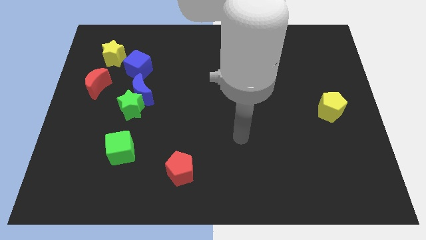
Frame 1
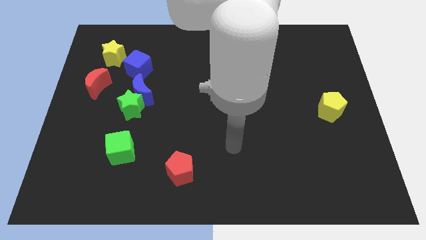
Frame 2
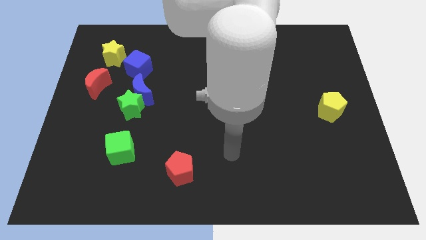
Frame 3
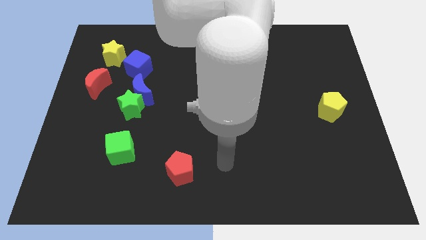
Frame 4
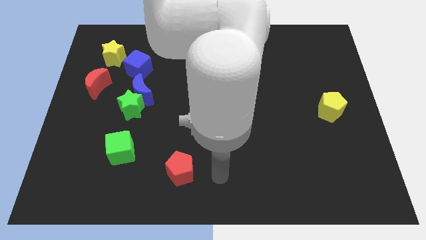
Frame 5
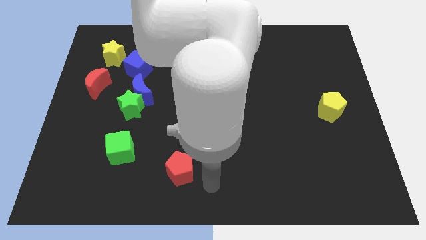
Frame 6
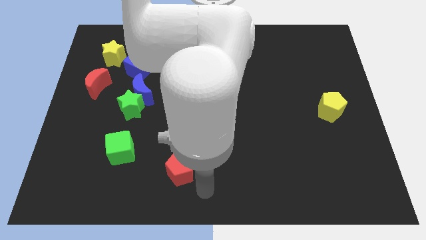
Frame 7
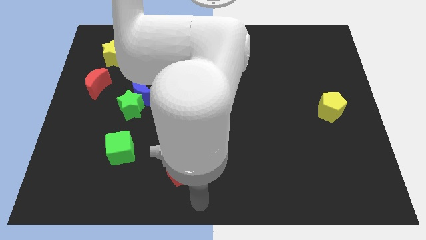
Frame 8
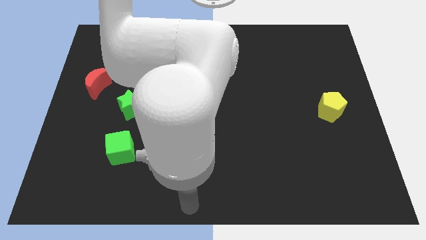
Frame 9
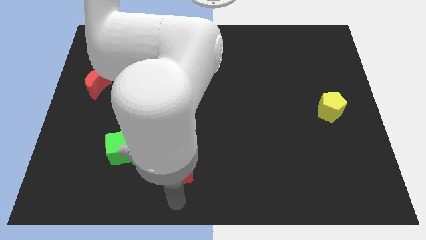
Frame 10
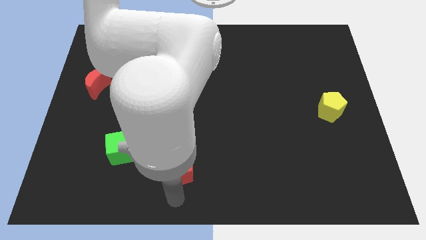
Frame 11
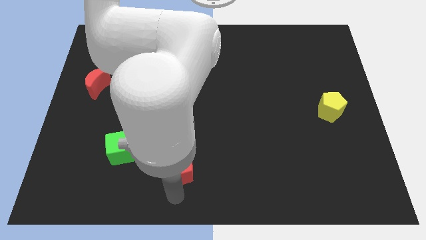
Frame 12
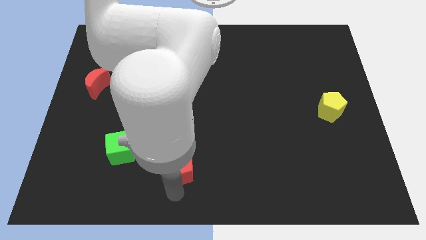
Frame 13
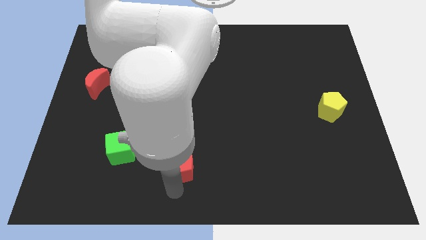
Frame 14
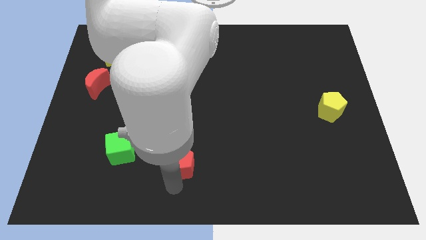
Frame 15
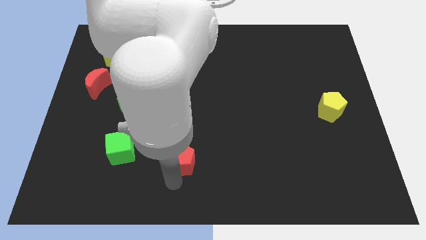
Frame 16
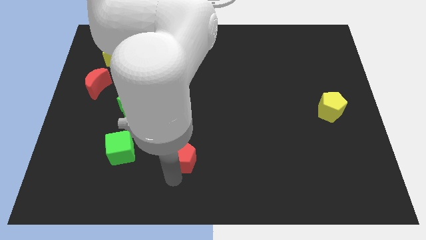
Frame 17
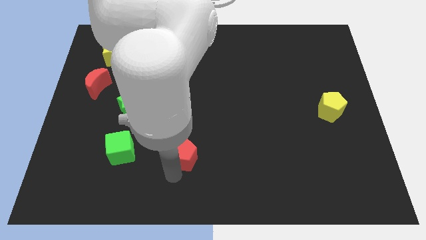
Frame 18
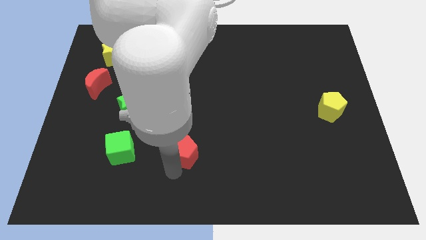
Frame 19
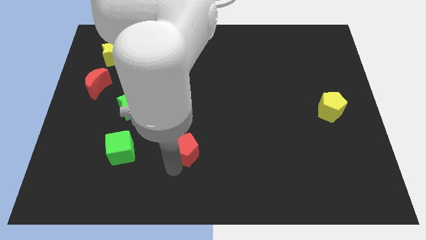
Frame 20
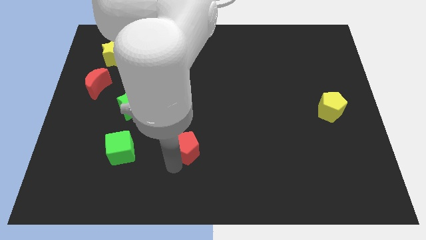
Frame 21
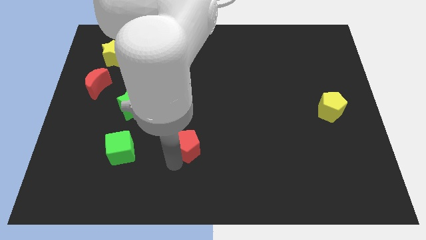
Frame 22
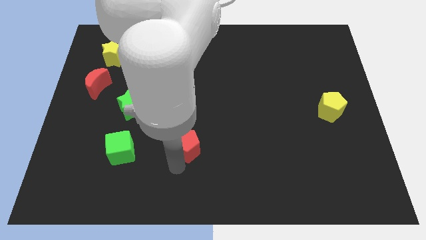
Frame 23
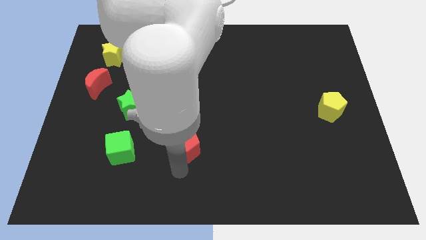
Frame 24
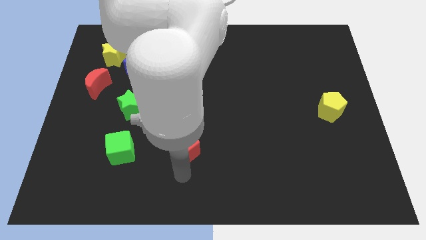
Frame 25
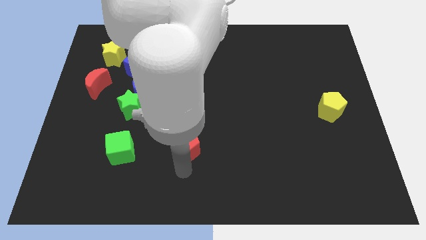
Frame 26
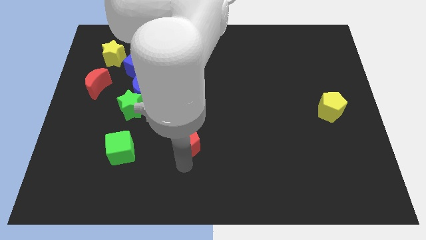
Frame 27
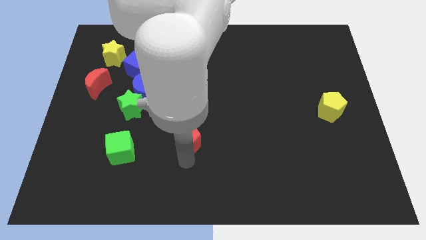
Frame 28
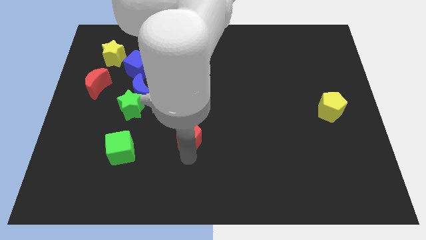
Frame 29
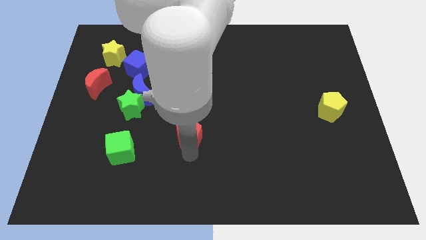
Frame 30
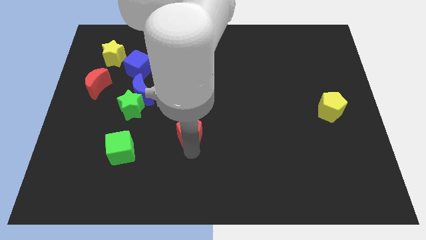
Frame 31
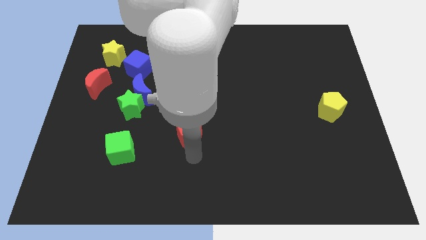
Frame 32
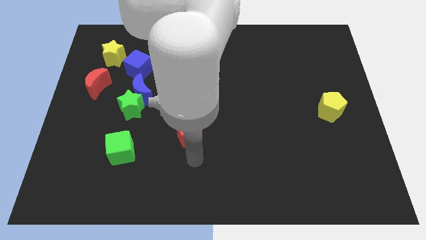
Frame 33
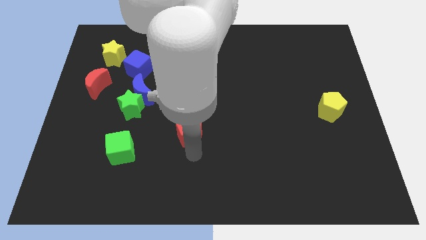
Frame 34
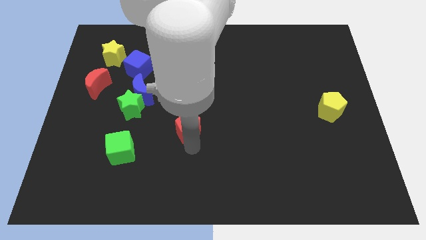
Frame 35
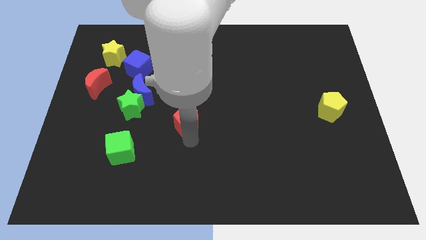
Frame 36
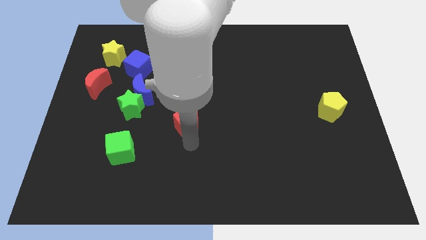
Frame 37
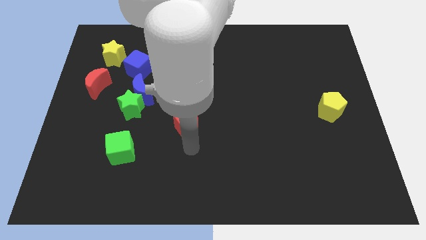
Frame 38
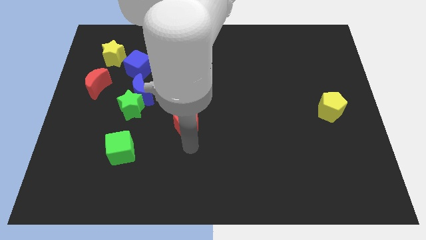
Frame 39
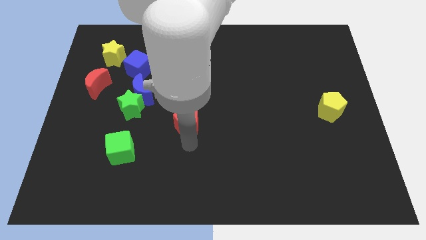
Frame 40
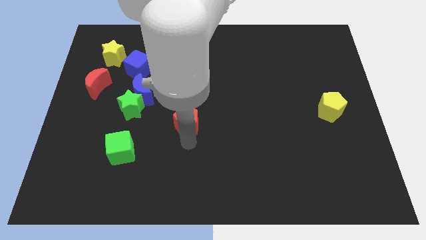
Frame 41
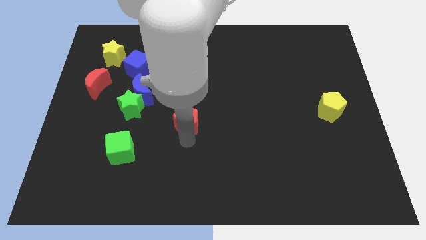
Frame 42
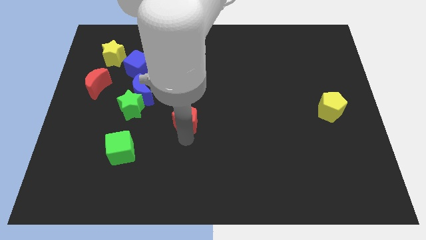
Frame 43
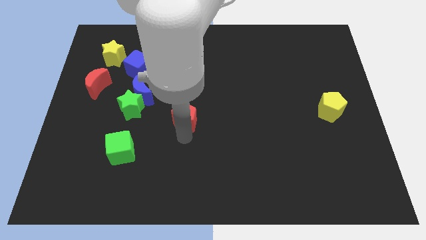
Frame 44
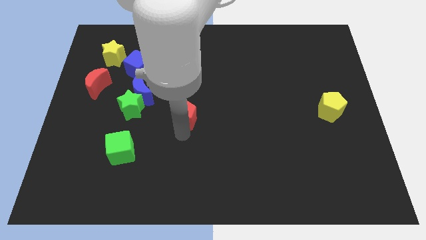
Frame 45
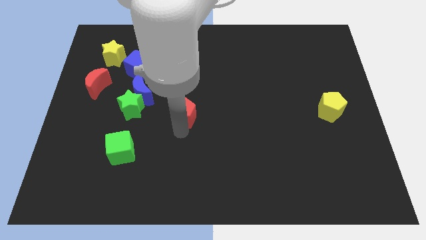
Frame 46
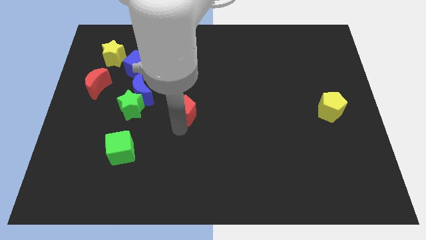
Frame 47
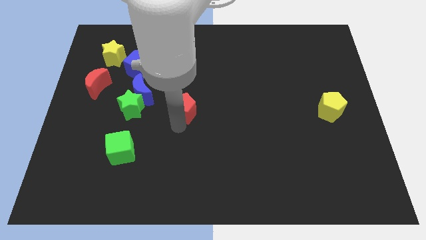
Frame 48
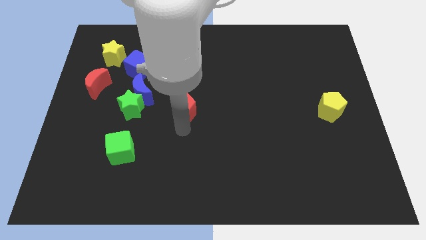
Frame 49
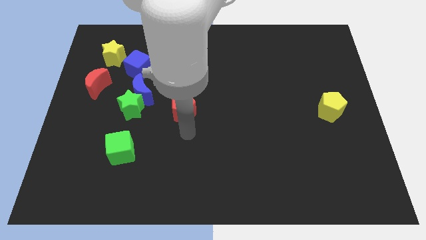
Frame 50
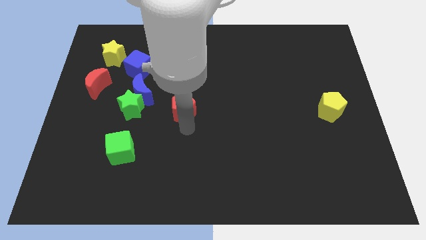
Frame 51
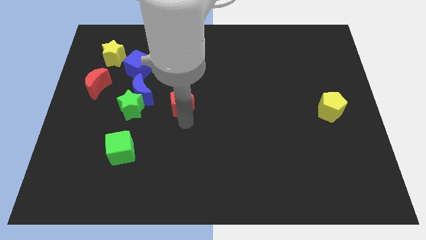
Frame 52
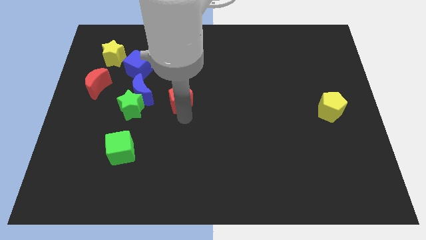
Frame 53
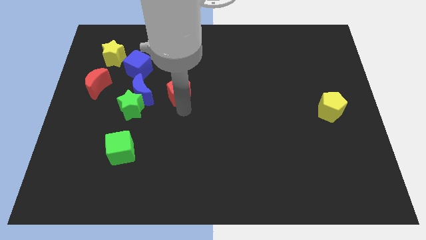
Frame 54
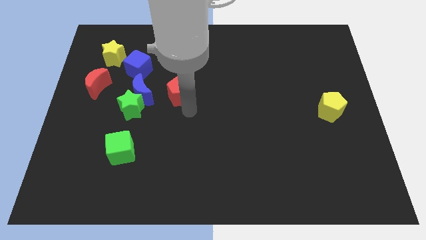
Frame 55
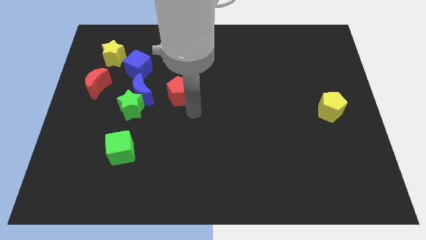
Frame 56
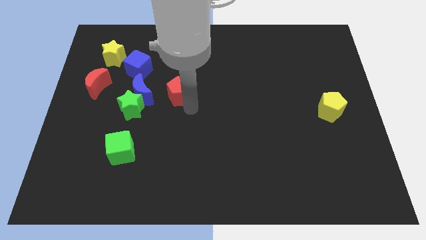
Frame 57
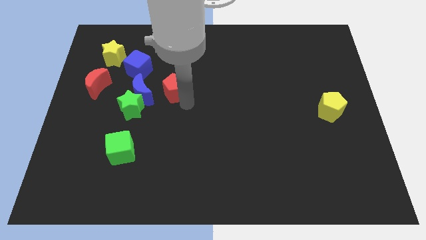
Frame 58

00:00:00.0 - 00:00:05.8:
push the red pentagon to the top right of the blue moon

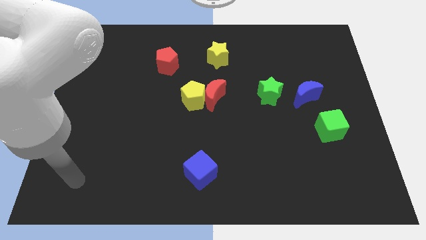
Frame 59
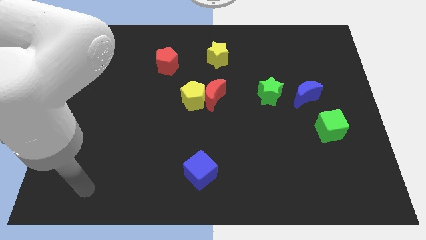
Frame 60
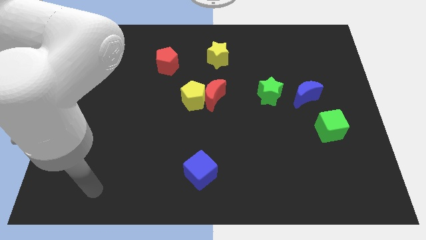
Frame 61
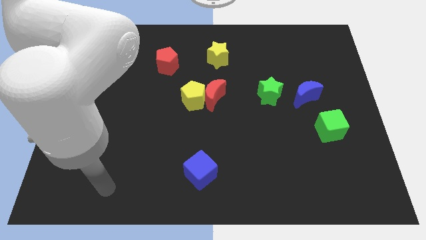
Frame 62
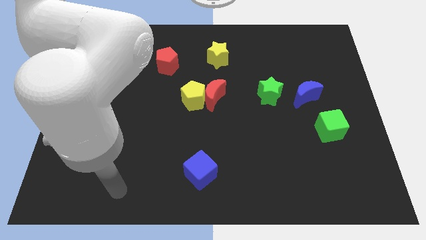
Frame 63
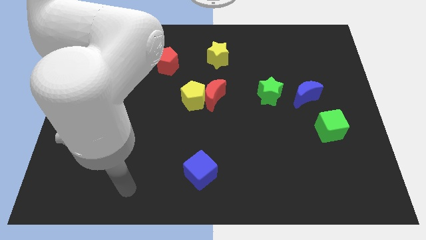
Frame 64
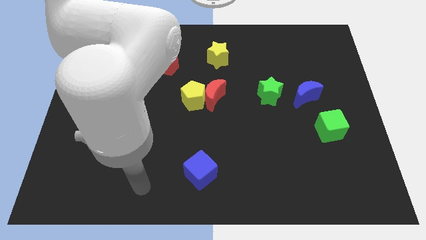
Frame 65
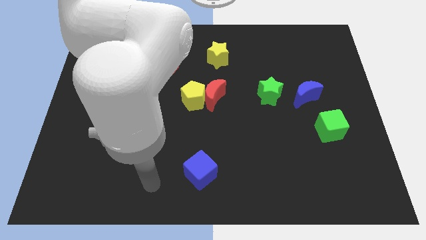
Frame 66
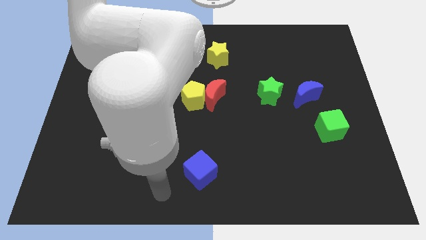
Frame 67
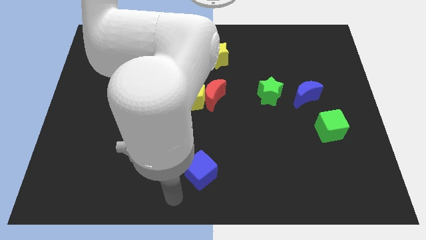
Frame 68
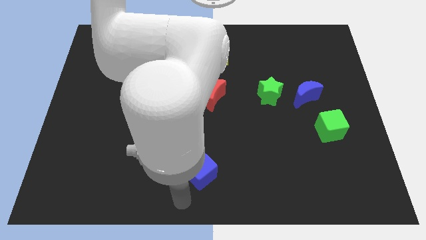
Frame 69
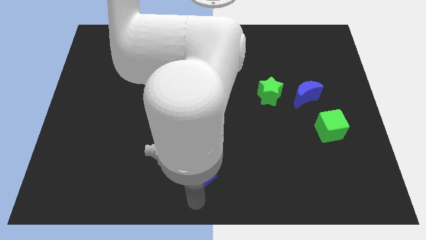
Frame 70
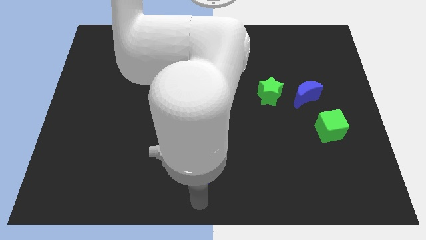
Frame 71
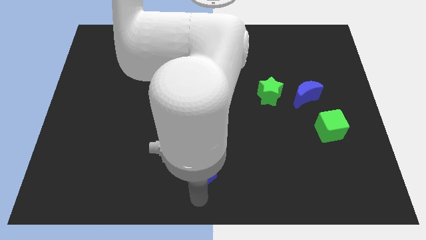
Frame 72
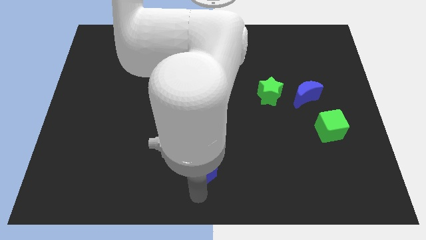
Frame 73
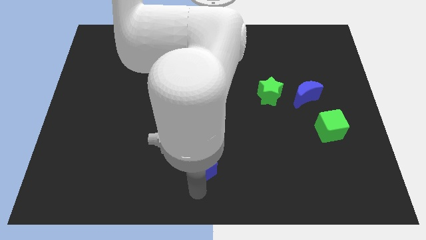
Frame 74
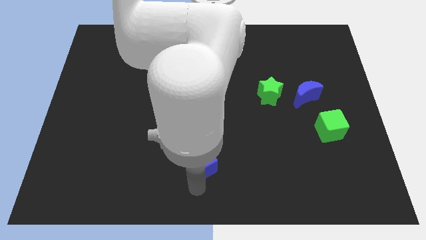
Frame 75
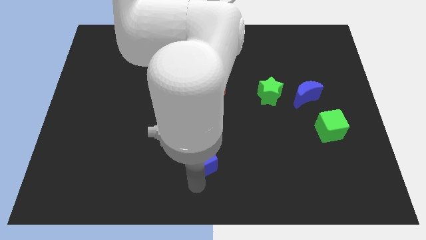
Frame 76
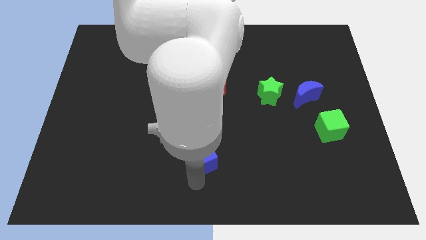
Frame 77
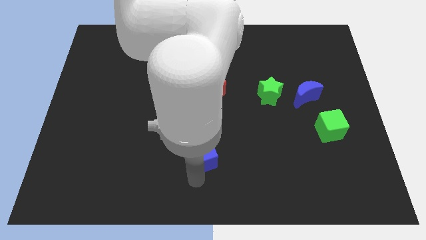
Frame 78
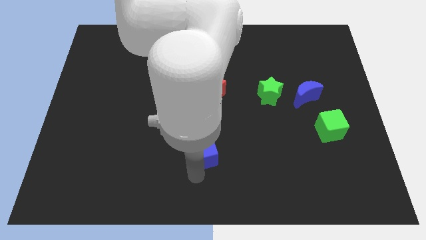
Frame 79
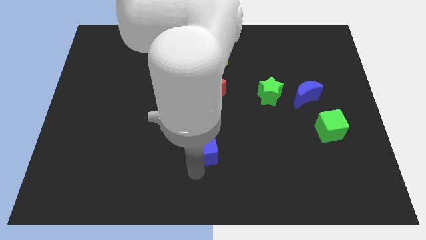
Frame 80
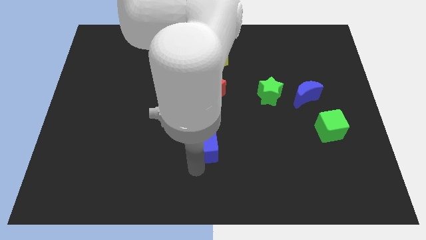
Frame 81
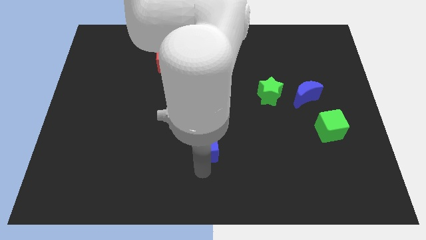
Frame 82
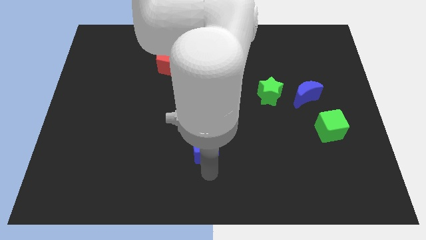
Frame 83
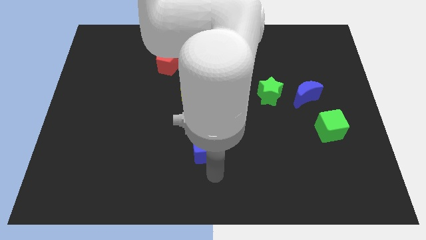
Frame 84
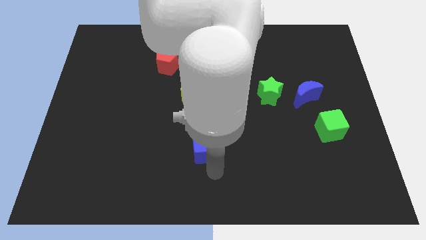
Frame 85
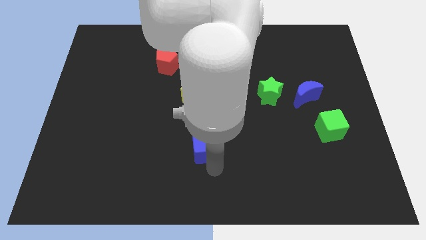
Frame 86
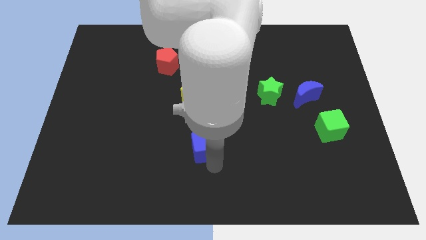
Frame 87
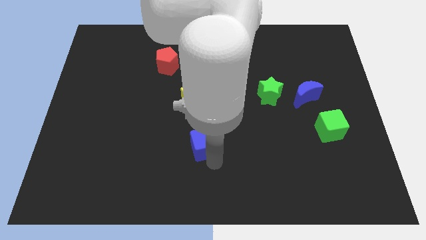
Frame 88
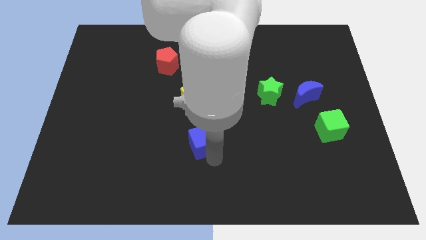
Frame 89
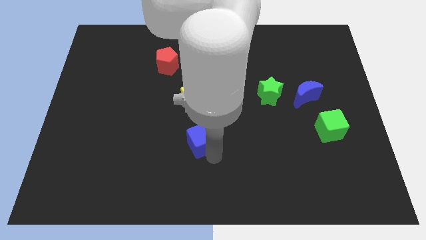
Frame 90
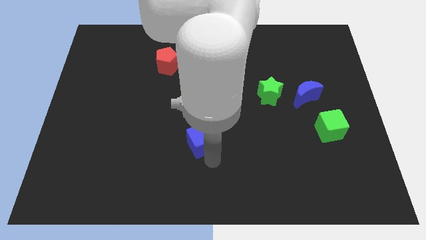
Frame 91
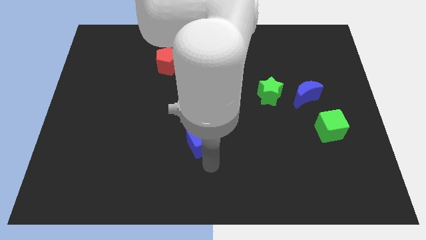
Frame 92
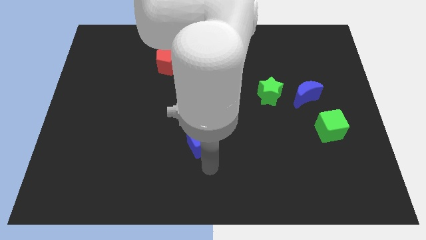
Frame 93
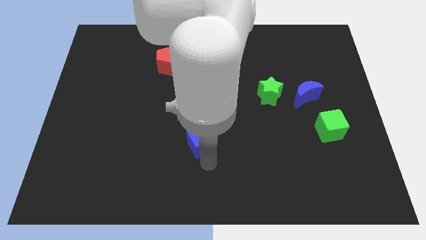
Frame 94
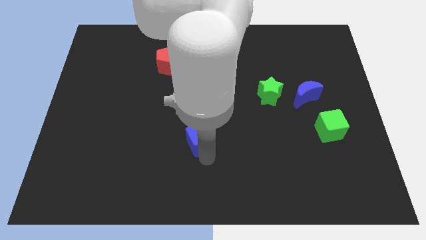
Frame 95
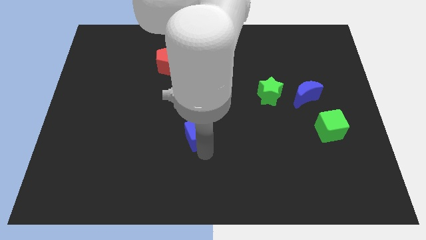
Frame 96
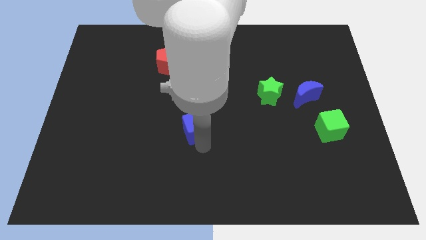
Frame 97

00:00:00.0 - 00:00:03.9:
push the blue cube to the bottom left of the red moon
